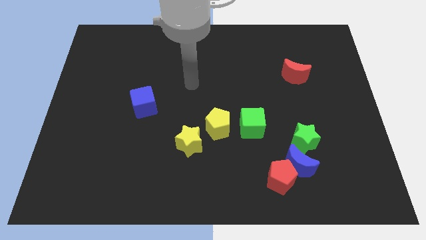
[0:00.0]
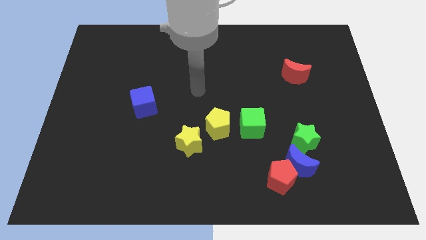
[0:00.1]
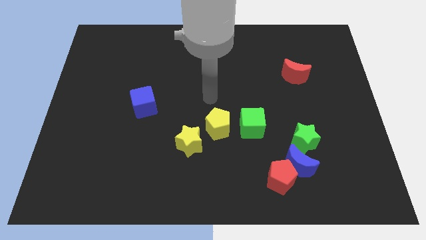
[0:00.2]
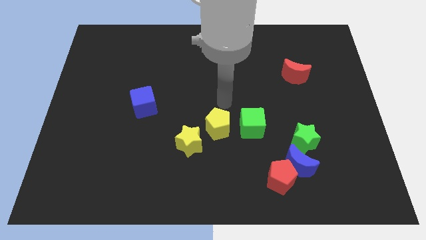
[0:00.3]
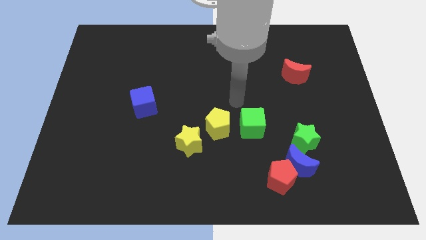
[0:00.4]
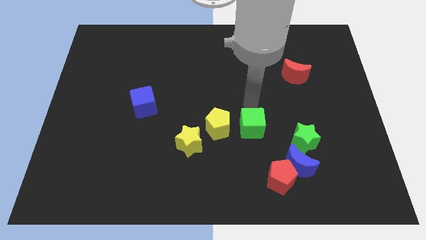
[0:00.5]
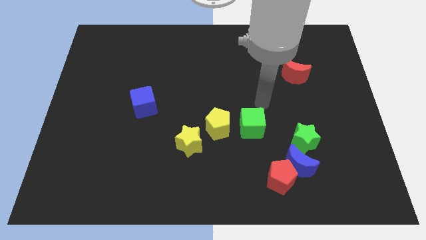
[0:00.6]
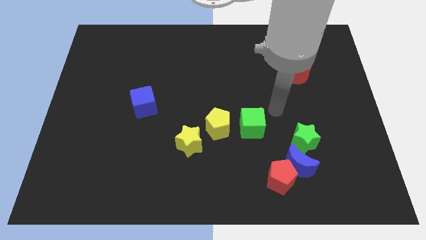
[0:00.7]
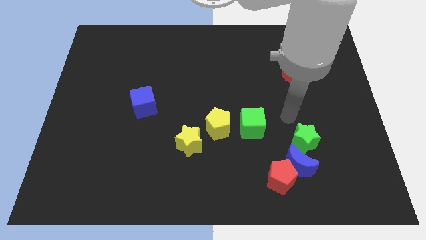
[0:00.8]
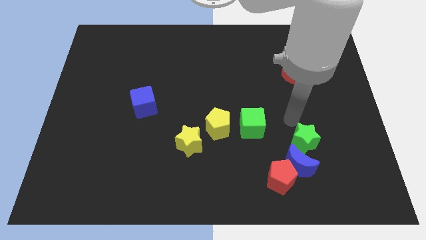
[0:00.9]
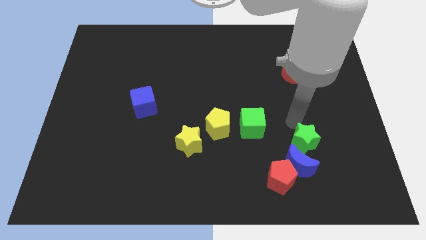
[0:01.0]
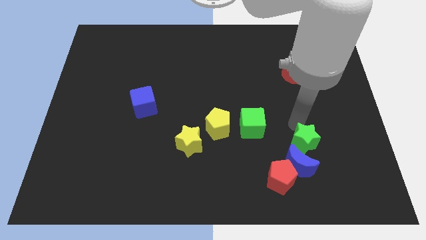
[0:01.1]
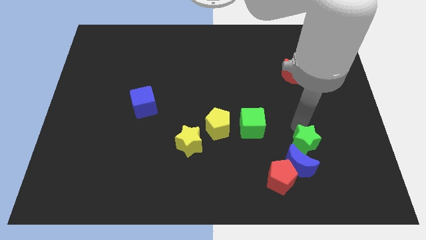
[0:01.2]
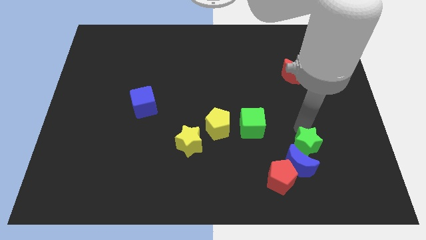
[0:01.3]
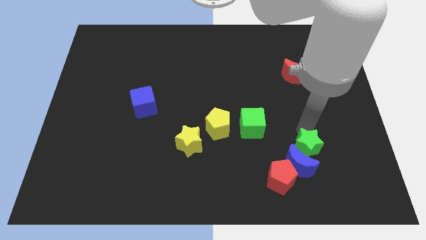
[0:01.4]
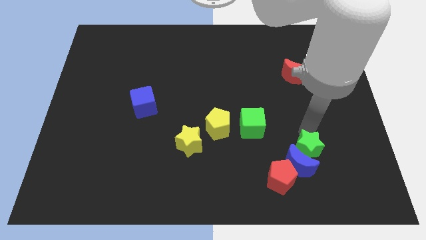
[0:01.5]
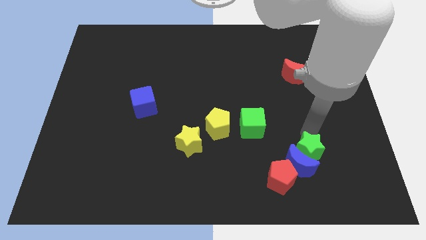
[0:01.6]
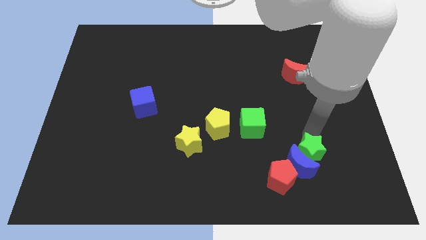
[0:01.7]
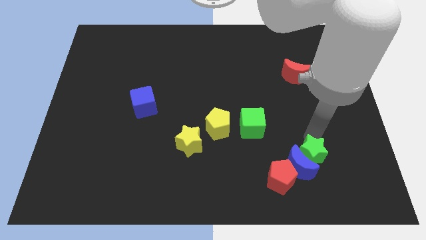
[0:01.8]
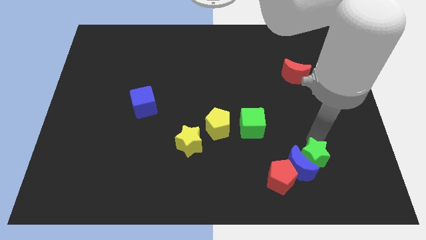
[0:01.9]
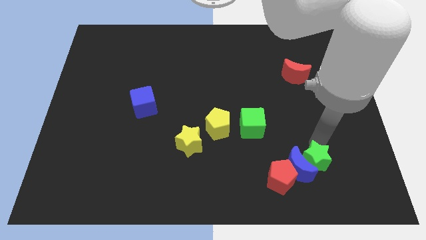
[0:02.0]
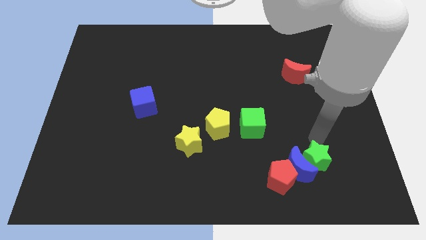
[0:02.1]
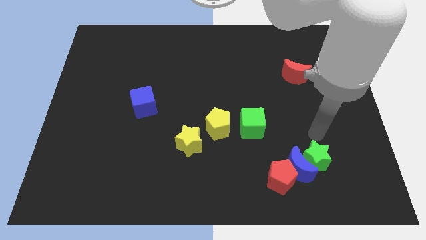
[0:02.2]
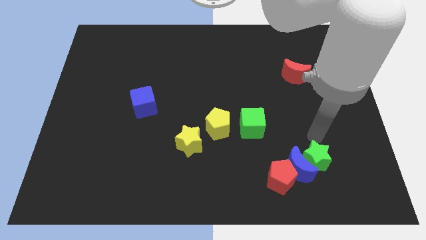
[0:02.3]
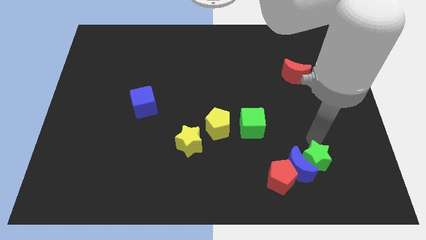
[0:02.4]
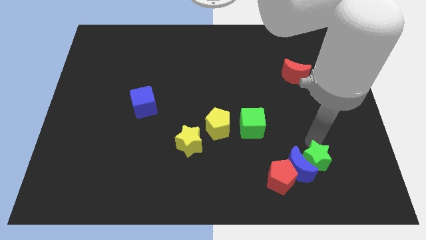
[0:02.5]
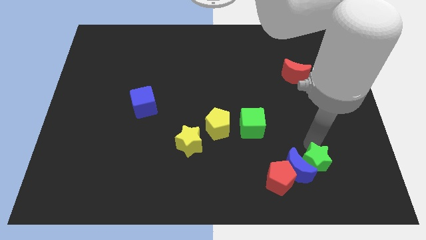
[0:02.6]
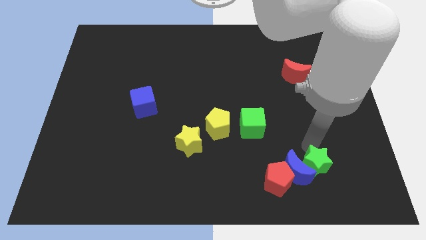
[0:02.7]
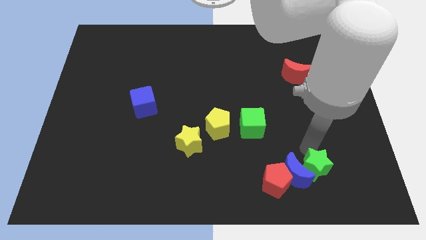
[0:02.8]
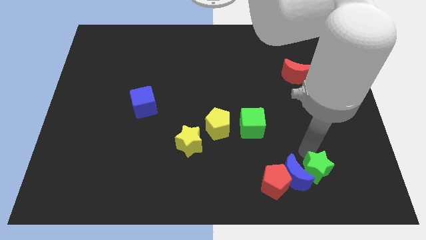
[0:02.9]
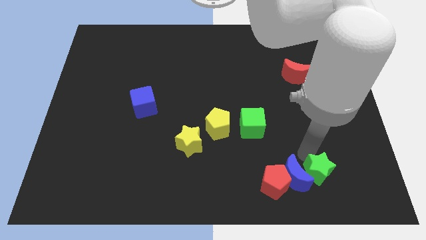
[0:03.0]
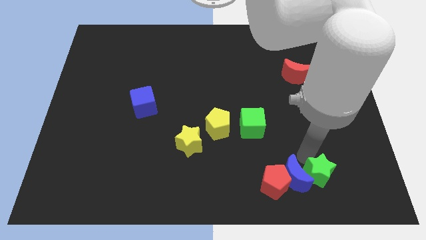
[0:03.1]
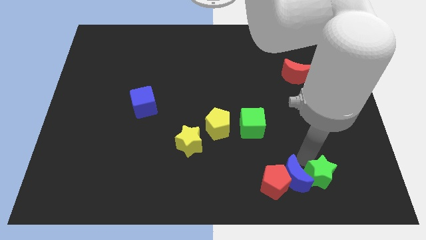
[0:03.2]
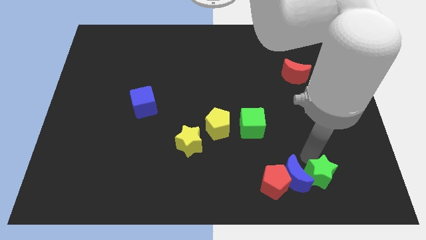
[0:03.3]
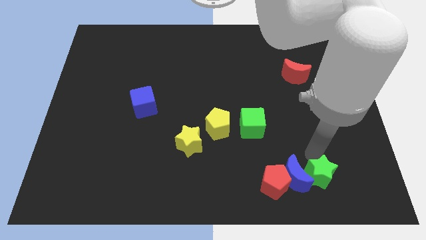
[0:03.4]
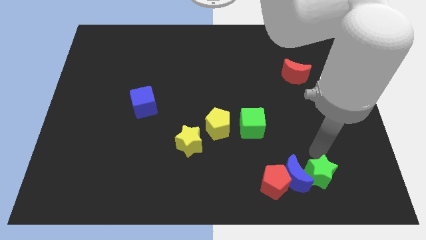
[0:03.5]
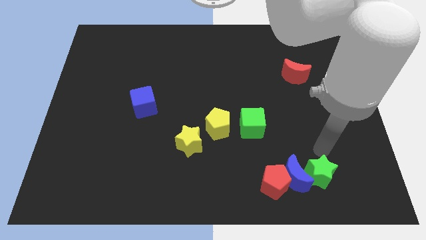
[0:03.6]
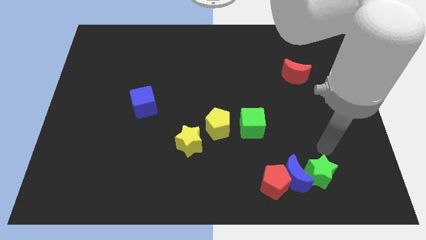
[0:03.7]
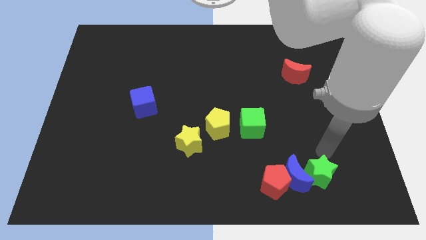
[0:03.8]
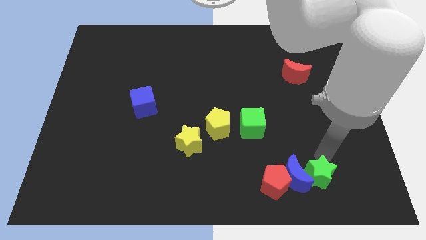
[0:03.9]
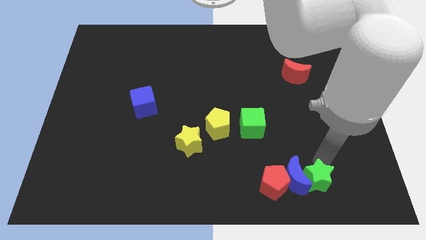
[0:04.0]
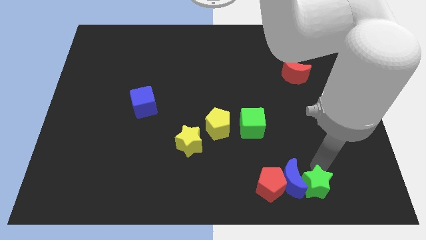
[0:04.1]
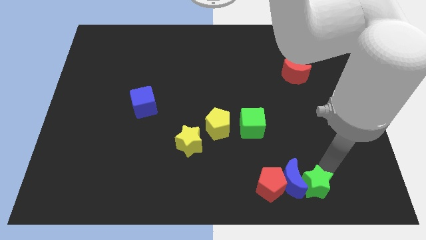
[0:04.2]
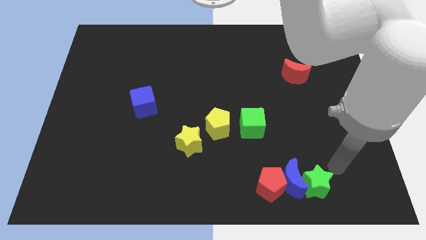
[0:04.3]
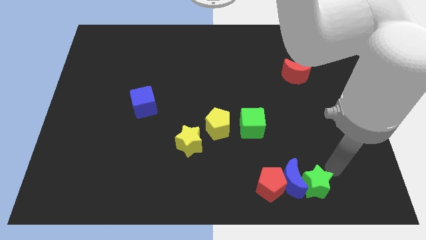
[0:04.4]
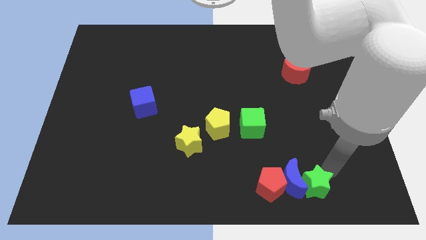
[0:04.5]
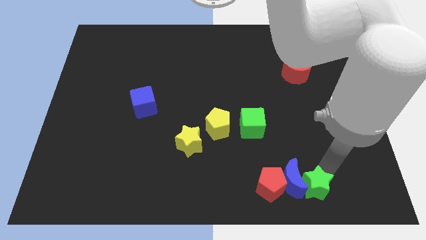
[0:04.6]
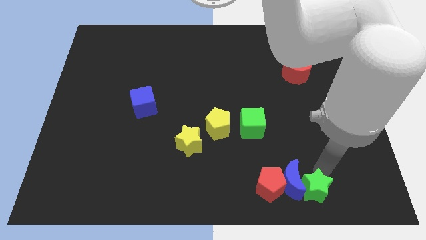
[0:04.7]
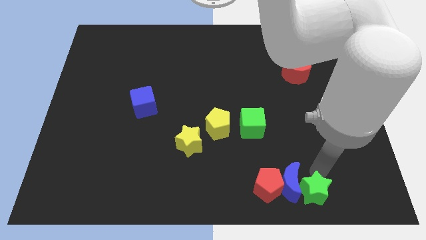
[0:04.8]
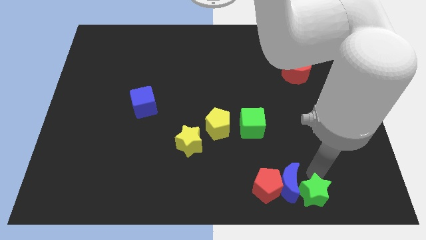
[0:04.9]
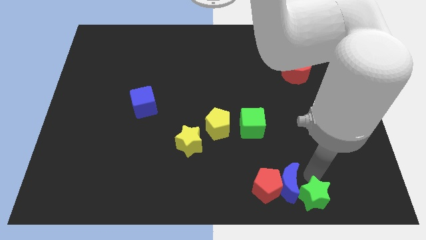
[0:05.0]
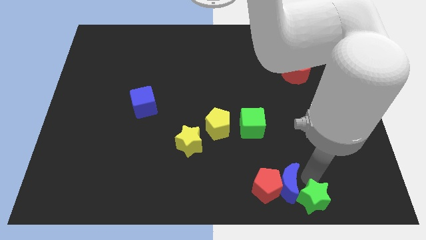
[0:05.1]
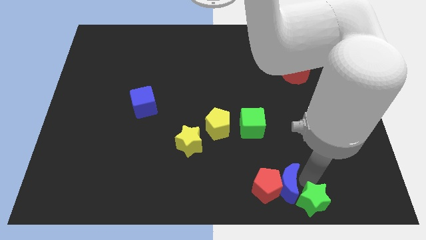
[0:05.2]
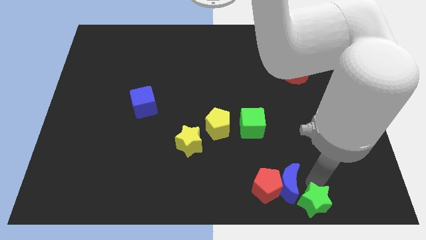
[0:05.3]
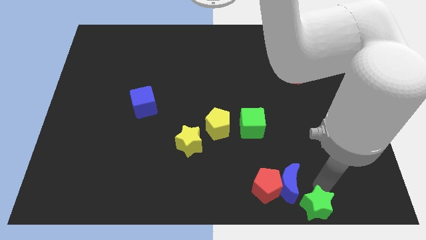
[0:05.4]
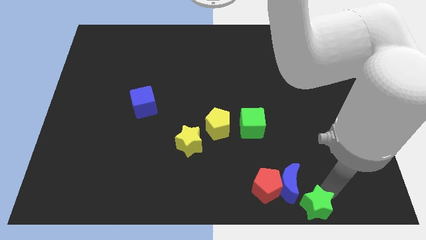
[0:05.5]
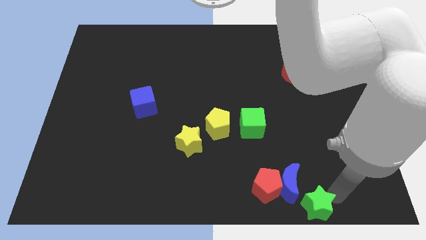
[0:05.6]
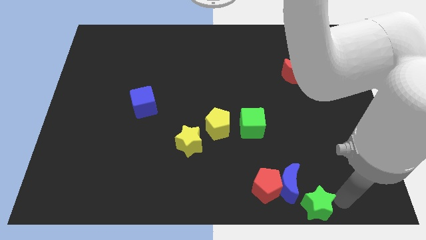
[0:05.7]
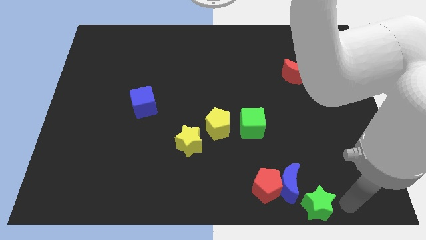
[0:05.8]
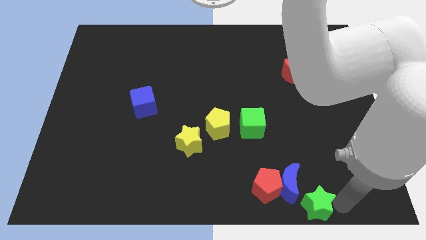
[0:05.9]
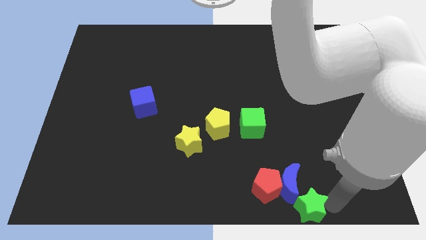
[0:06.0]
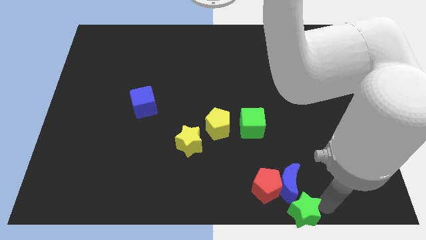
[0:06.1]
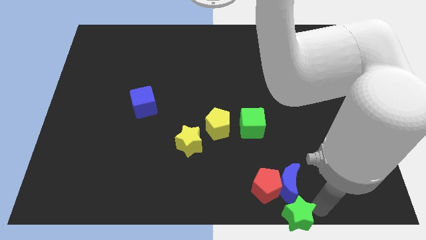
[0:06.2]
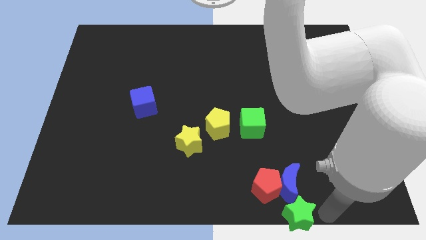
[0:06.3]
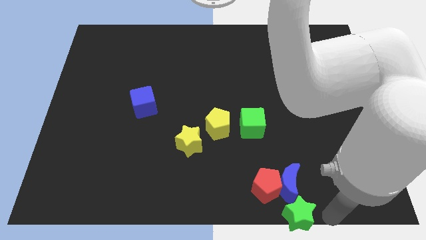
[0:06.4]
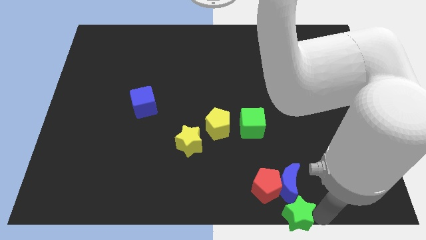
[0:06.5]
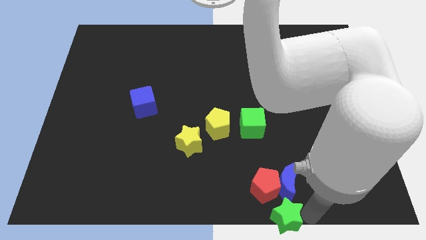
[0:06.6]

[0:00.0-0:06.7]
move the green star to the bottom

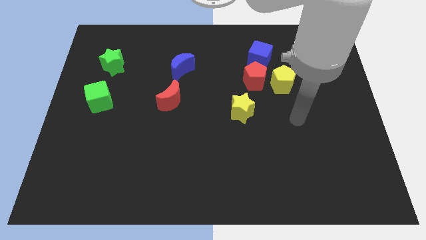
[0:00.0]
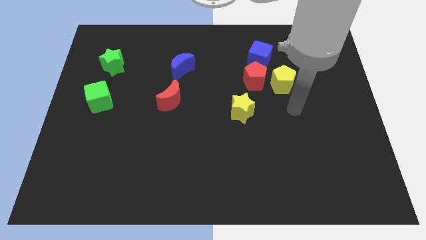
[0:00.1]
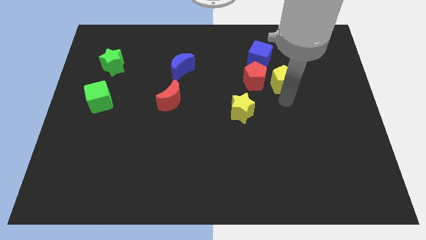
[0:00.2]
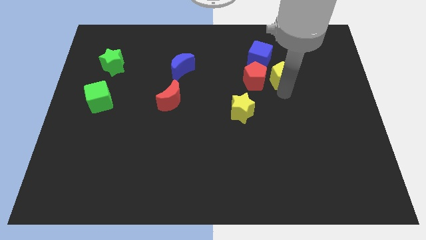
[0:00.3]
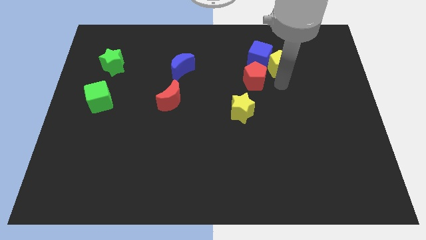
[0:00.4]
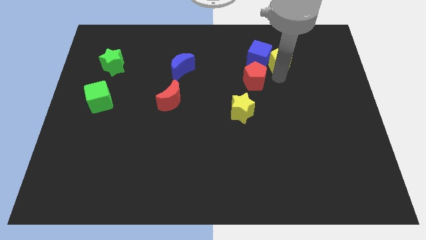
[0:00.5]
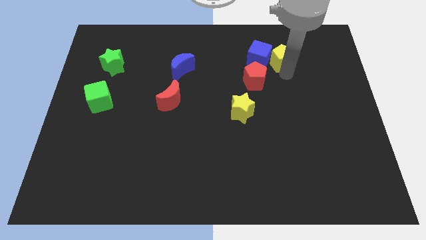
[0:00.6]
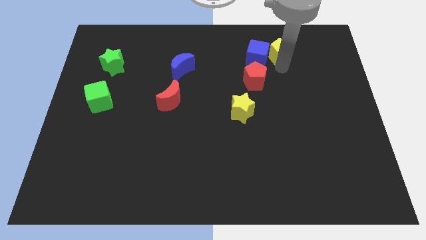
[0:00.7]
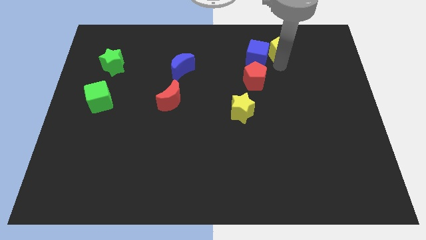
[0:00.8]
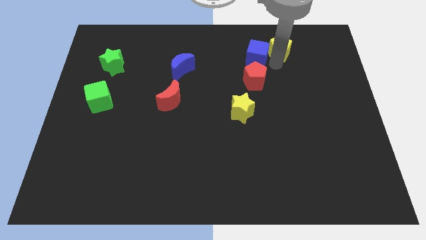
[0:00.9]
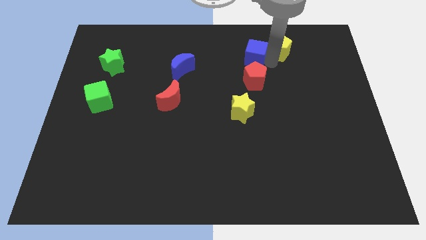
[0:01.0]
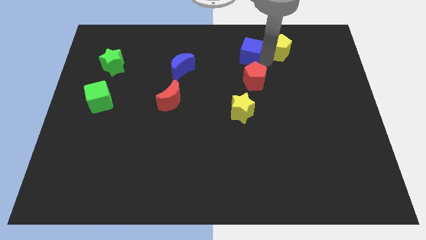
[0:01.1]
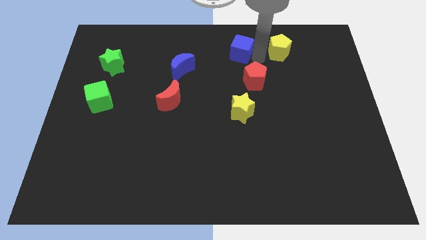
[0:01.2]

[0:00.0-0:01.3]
push the blue cube to the towards your base
